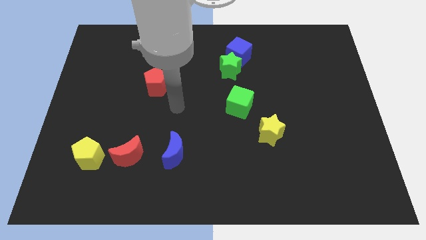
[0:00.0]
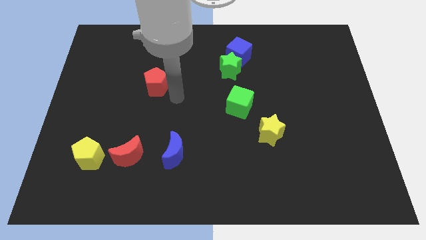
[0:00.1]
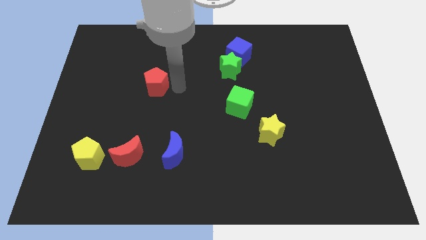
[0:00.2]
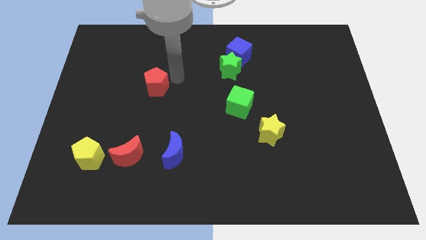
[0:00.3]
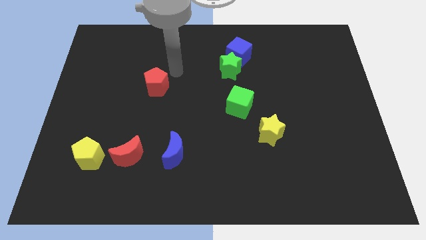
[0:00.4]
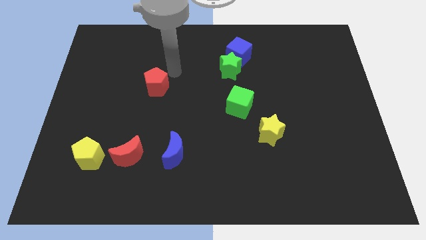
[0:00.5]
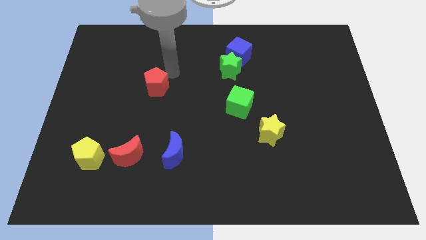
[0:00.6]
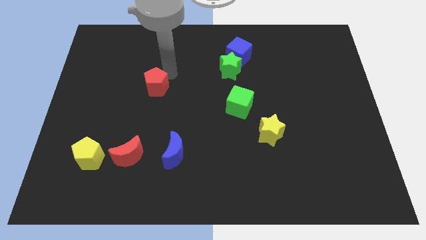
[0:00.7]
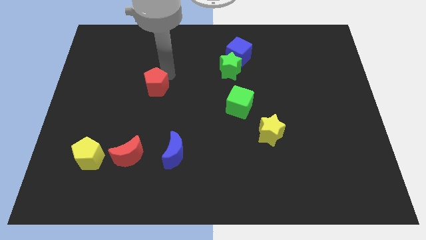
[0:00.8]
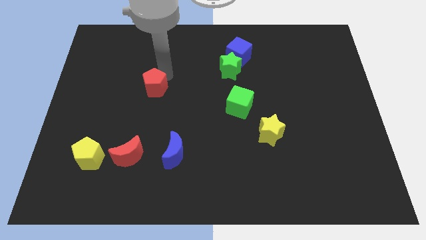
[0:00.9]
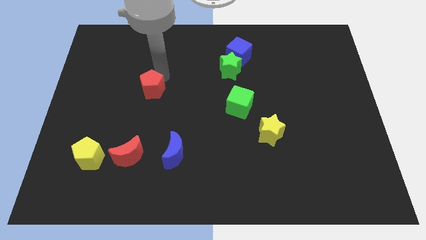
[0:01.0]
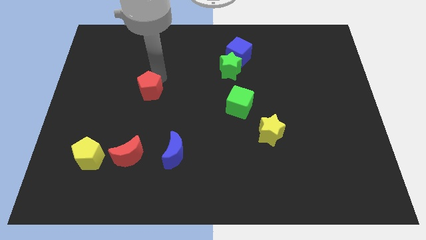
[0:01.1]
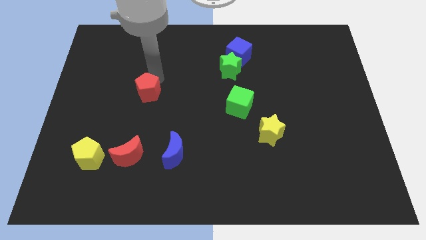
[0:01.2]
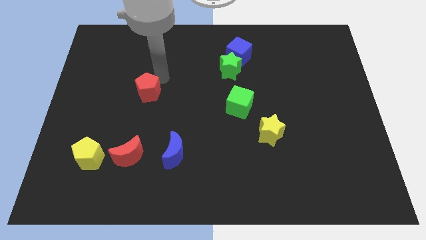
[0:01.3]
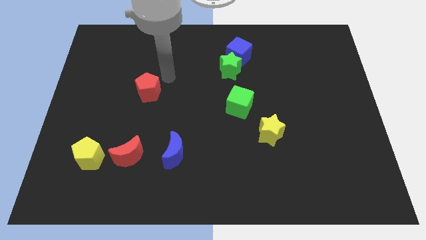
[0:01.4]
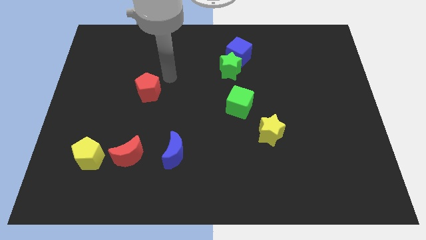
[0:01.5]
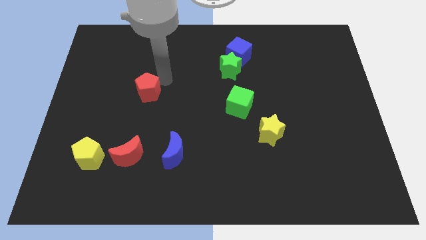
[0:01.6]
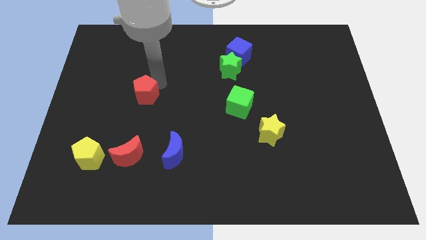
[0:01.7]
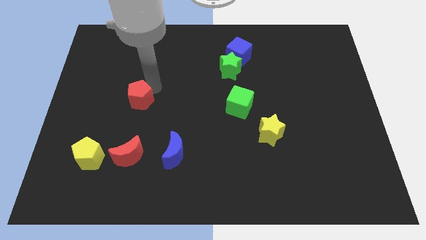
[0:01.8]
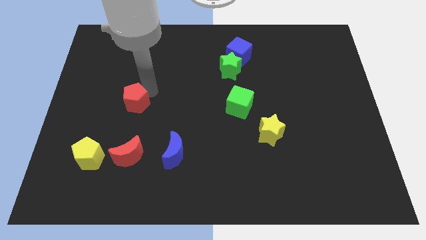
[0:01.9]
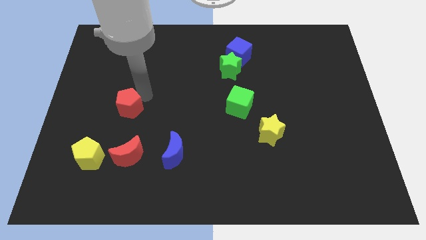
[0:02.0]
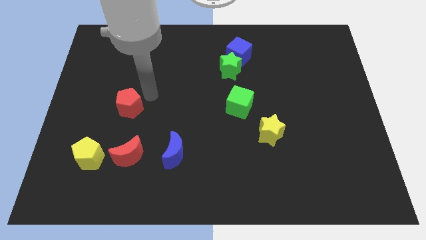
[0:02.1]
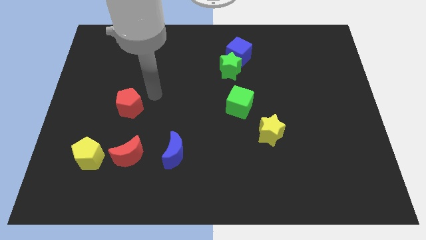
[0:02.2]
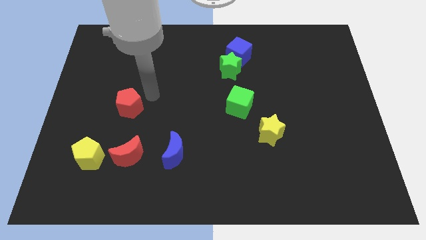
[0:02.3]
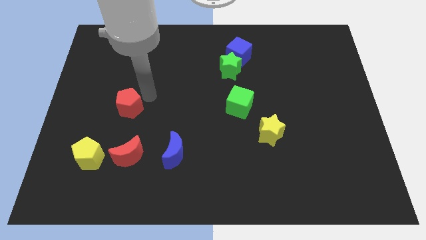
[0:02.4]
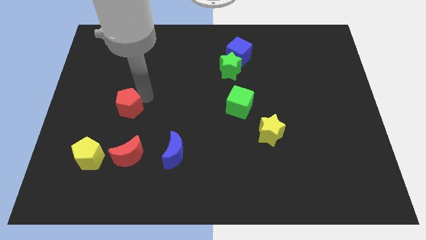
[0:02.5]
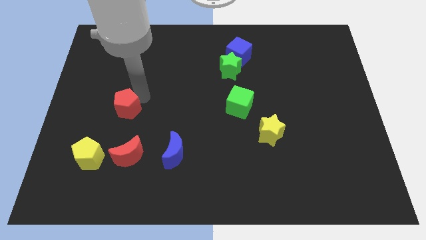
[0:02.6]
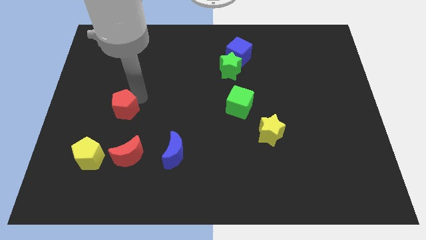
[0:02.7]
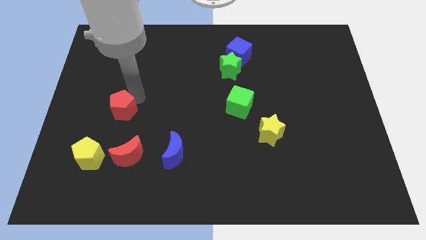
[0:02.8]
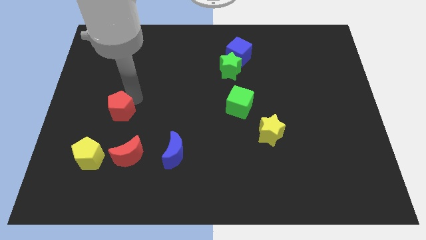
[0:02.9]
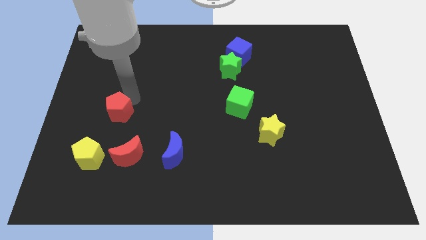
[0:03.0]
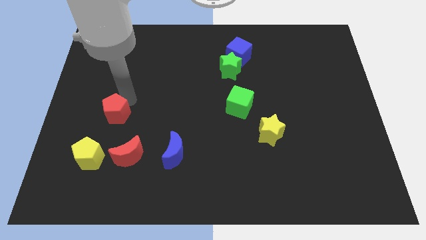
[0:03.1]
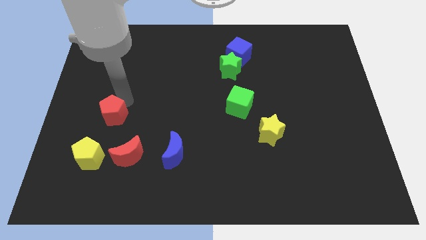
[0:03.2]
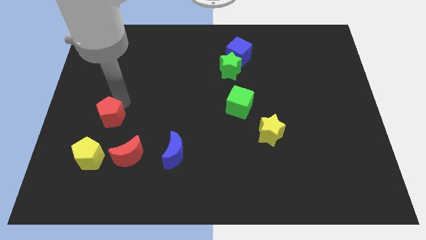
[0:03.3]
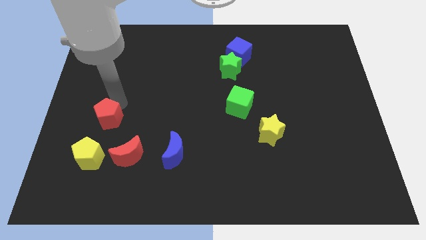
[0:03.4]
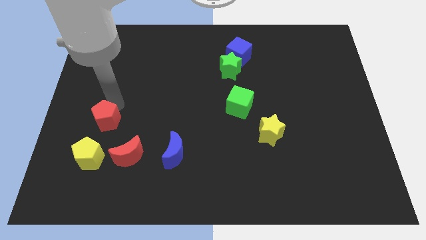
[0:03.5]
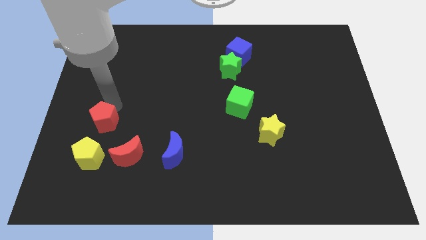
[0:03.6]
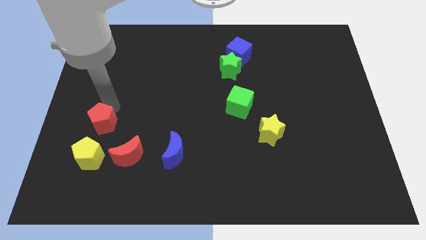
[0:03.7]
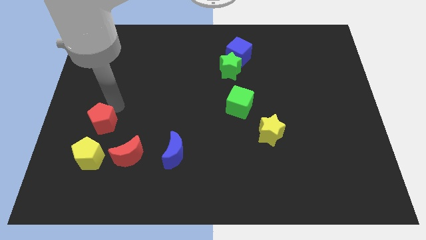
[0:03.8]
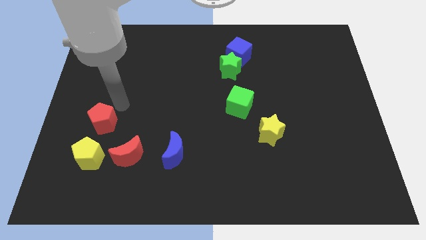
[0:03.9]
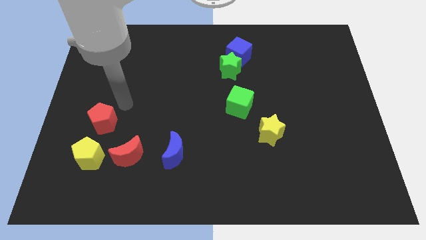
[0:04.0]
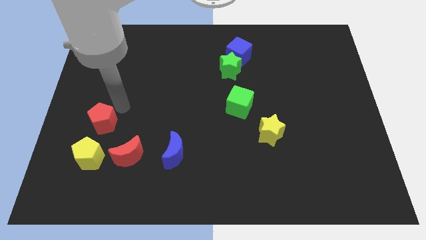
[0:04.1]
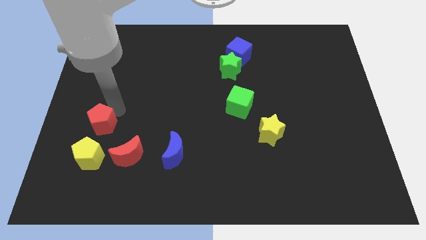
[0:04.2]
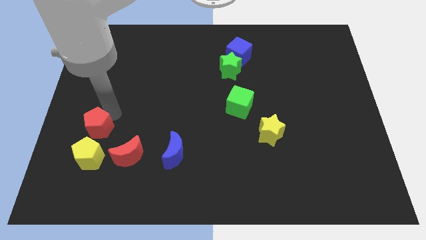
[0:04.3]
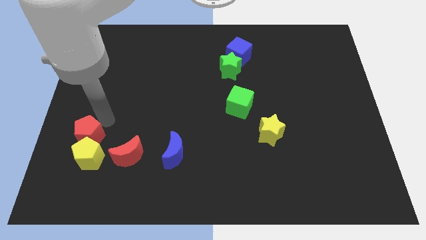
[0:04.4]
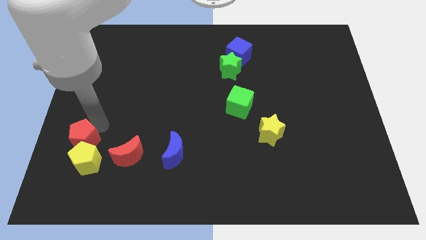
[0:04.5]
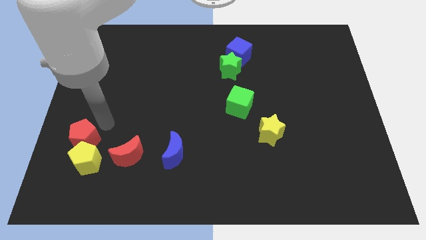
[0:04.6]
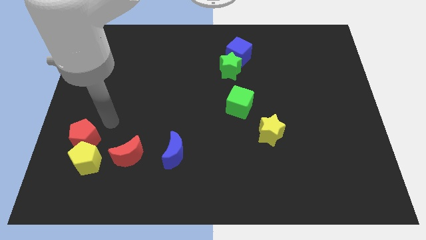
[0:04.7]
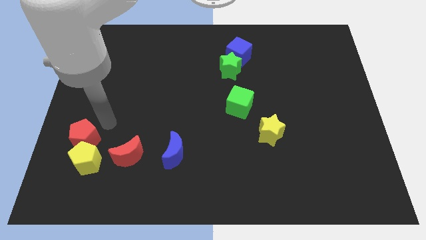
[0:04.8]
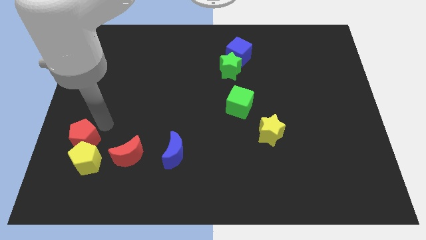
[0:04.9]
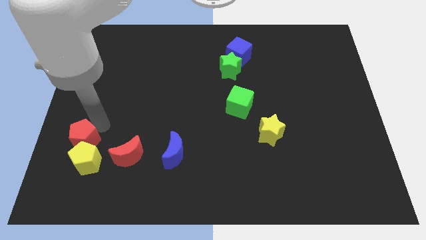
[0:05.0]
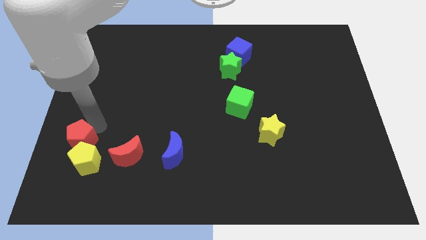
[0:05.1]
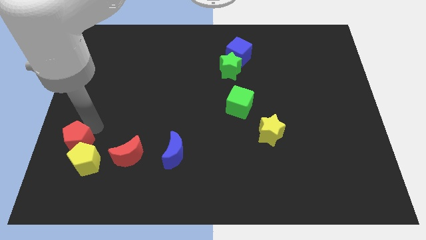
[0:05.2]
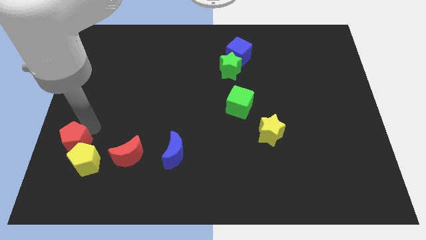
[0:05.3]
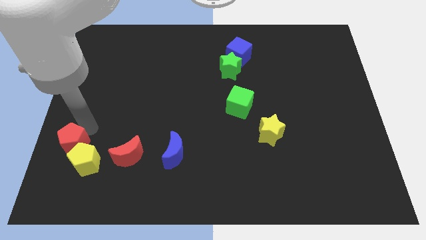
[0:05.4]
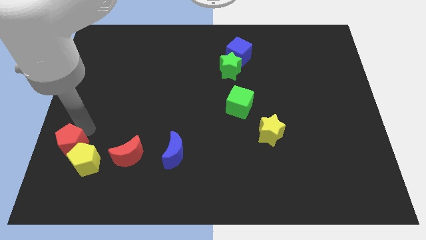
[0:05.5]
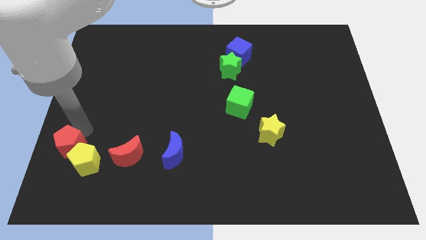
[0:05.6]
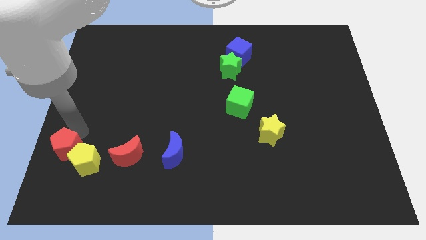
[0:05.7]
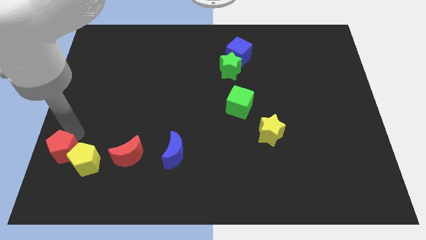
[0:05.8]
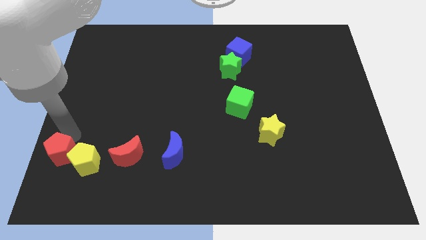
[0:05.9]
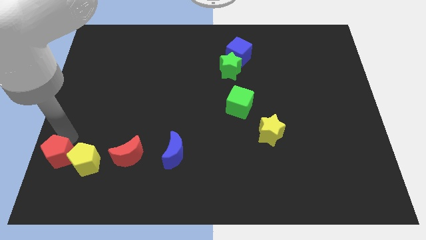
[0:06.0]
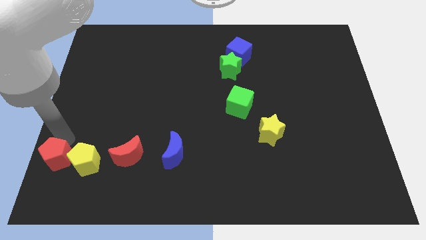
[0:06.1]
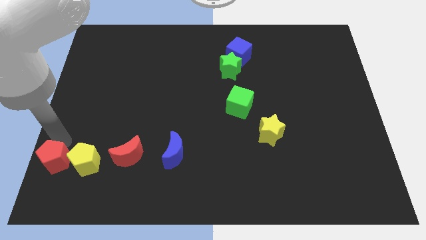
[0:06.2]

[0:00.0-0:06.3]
move the red pentagon to the bottom left

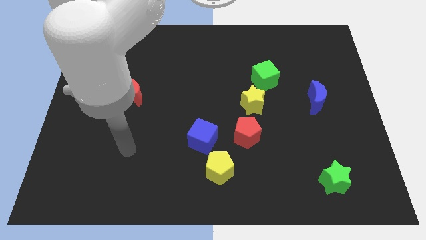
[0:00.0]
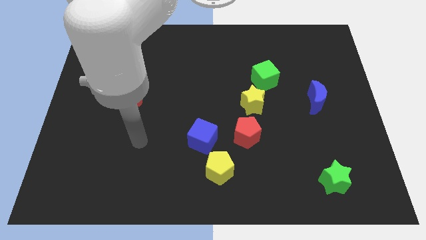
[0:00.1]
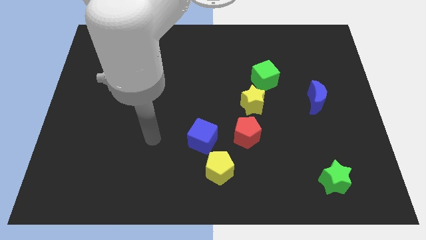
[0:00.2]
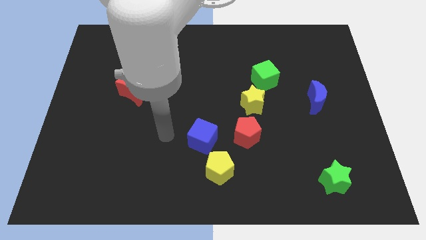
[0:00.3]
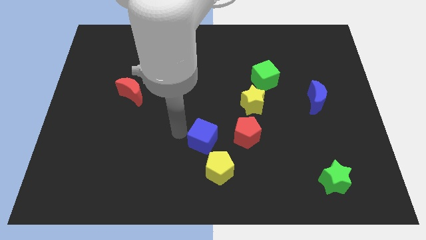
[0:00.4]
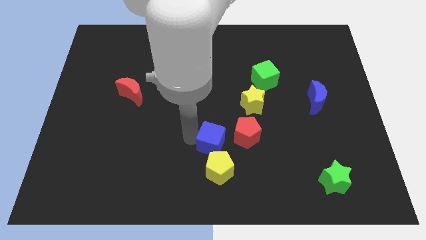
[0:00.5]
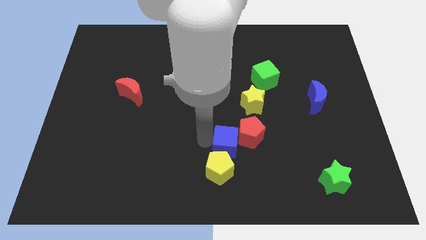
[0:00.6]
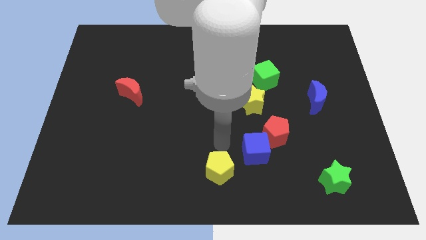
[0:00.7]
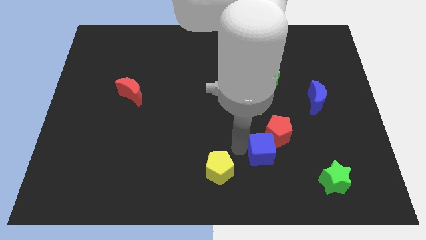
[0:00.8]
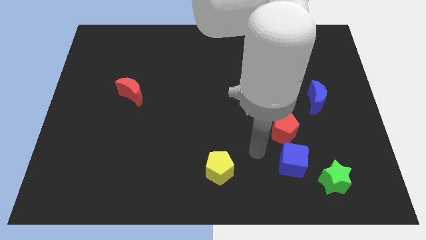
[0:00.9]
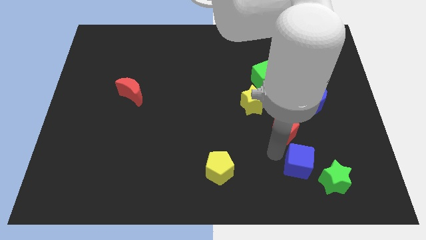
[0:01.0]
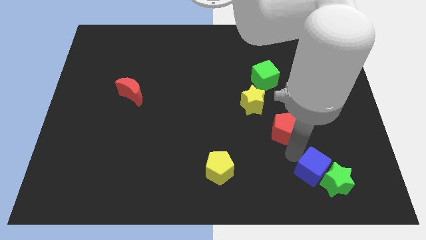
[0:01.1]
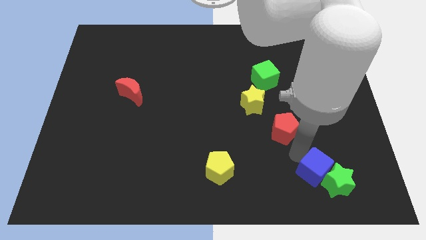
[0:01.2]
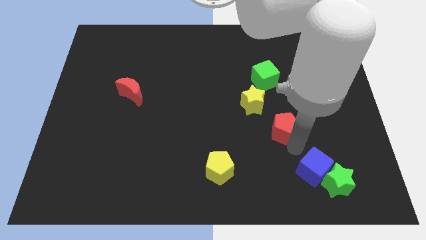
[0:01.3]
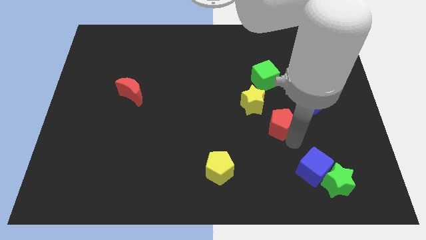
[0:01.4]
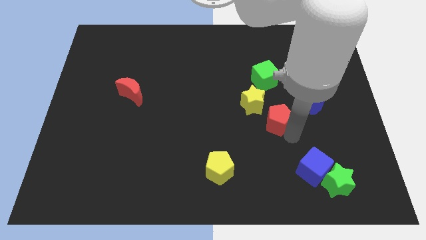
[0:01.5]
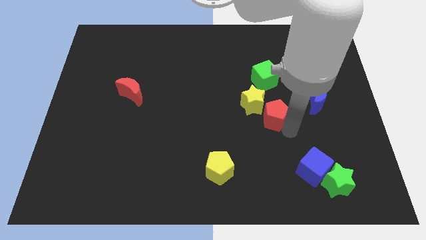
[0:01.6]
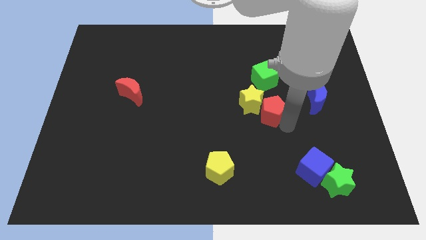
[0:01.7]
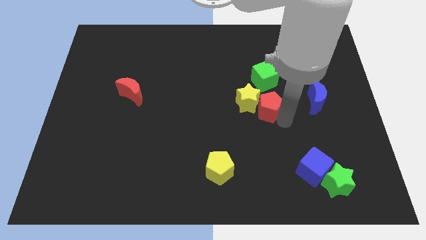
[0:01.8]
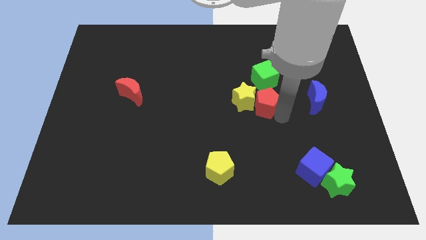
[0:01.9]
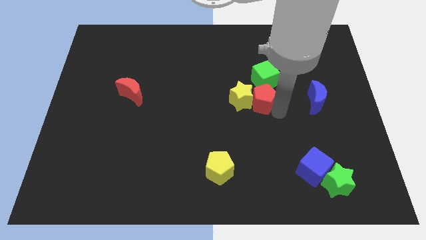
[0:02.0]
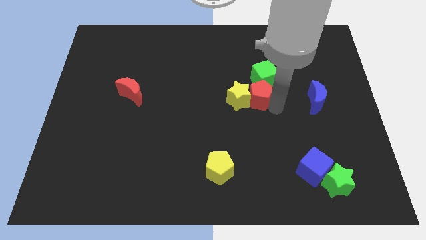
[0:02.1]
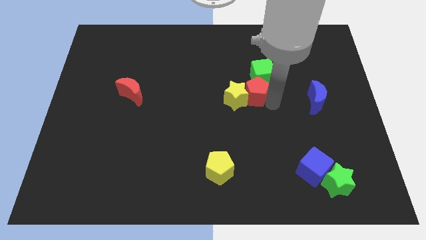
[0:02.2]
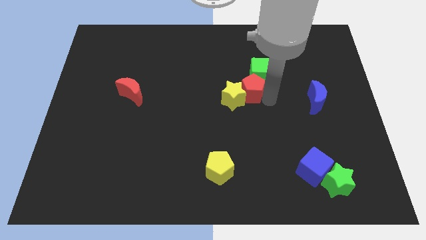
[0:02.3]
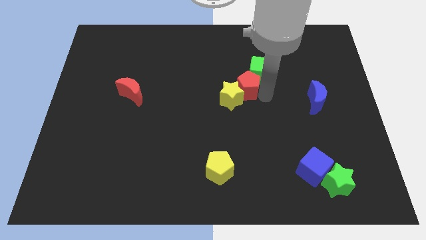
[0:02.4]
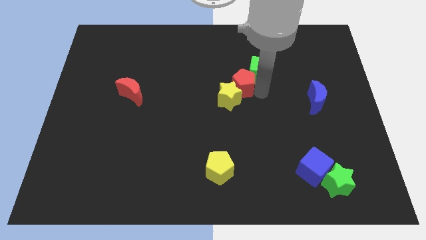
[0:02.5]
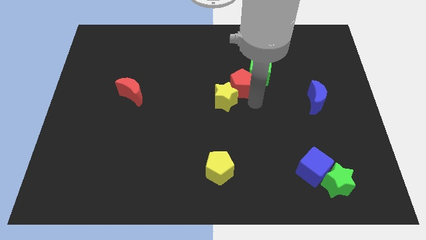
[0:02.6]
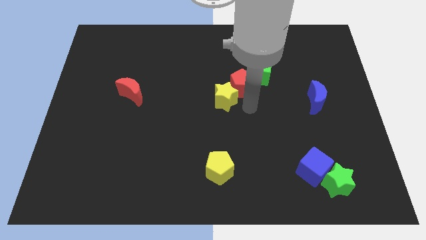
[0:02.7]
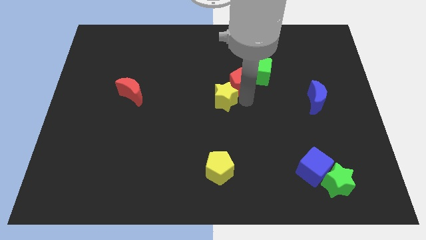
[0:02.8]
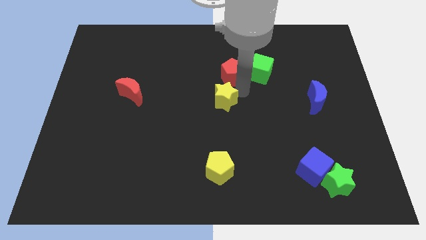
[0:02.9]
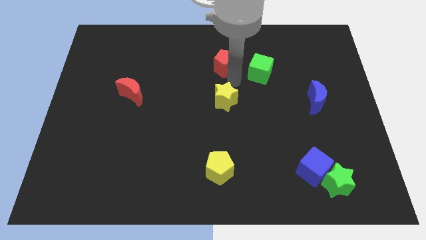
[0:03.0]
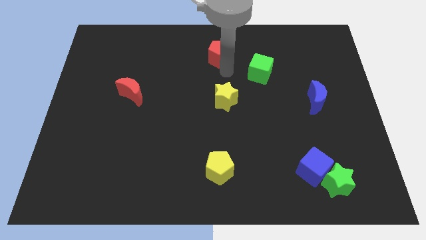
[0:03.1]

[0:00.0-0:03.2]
put the red pentagon to the top
